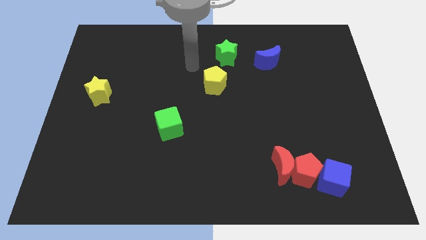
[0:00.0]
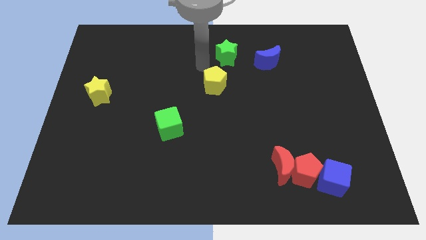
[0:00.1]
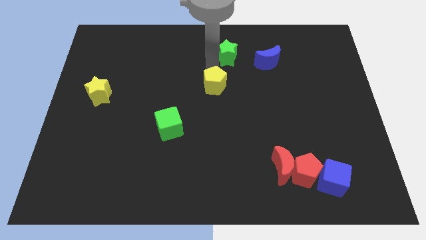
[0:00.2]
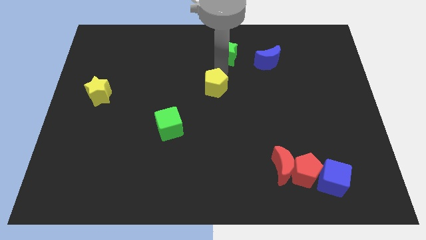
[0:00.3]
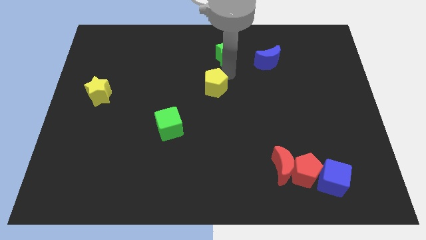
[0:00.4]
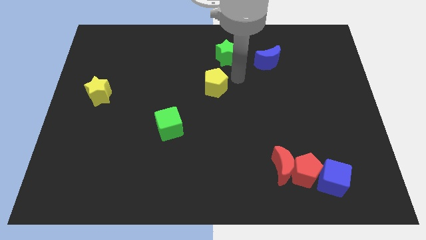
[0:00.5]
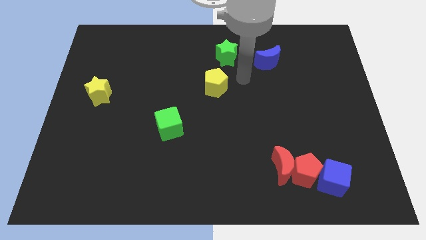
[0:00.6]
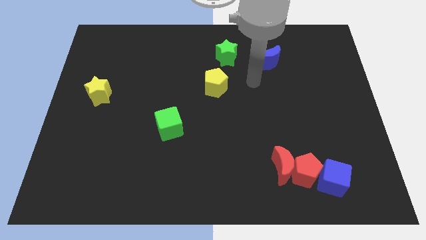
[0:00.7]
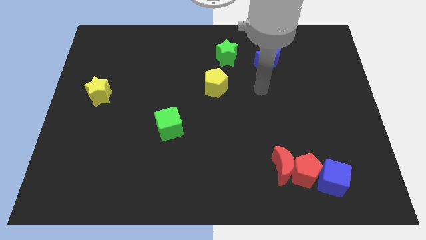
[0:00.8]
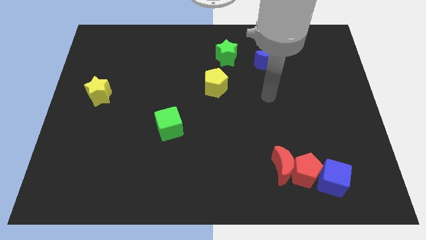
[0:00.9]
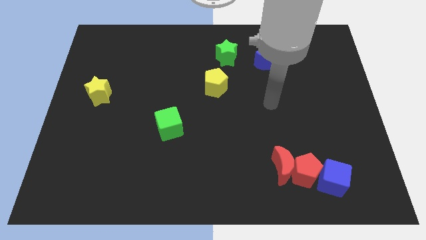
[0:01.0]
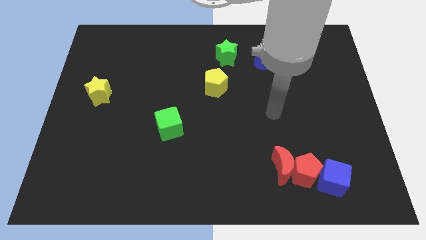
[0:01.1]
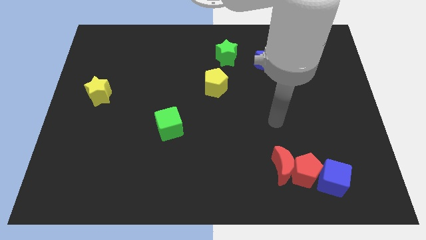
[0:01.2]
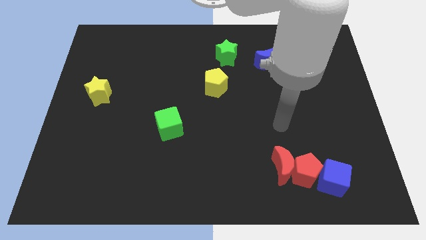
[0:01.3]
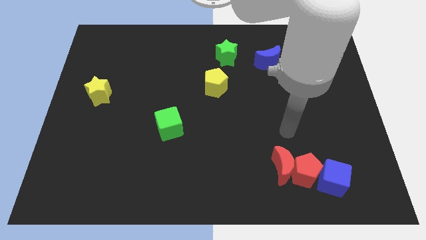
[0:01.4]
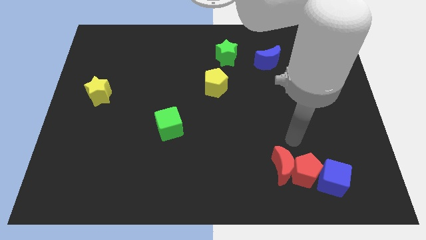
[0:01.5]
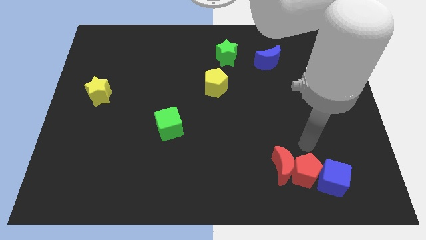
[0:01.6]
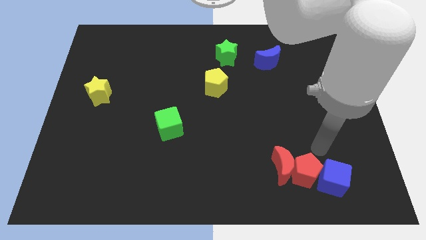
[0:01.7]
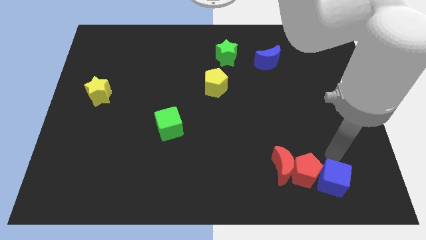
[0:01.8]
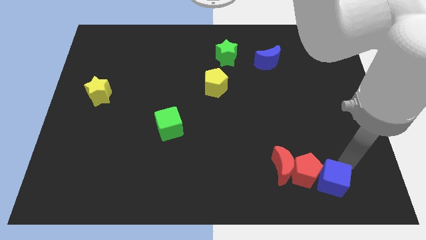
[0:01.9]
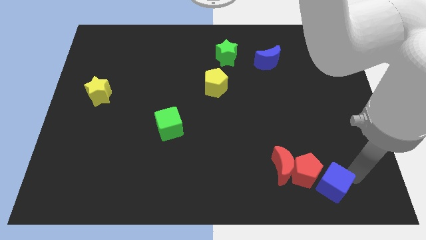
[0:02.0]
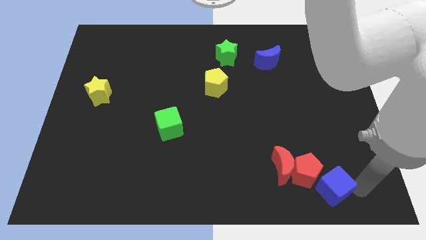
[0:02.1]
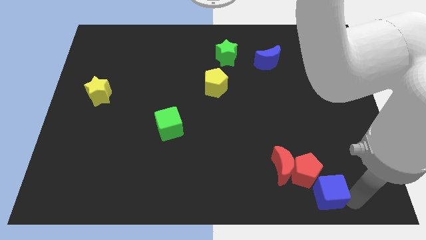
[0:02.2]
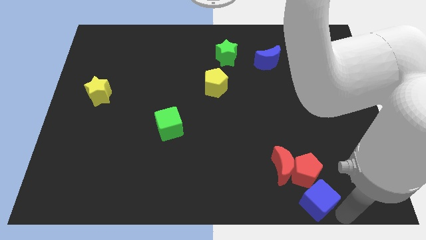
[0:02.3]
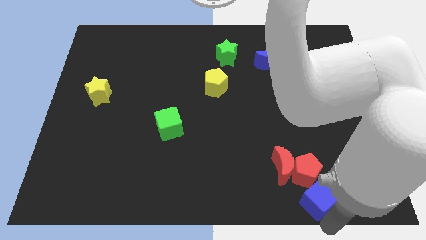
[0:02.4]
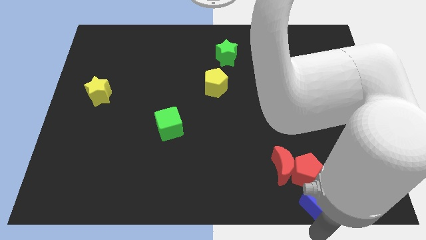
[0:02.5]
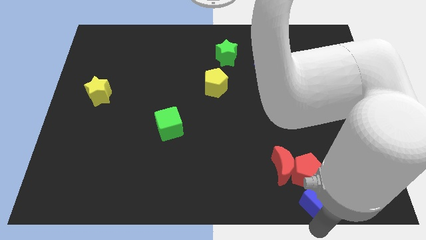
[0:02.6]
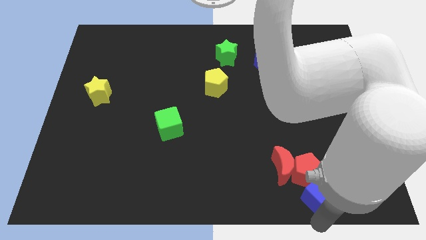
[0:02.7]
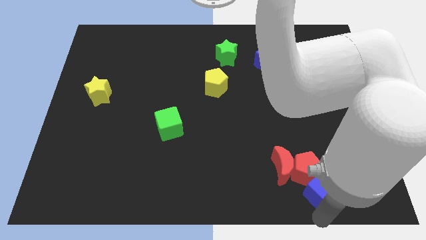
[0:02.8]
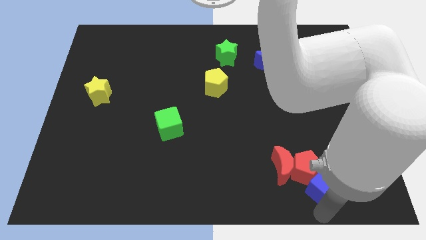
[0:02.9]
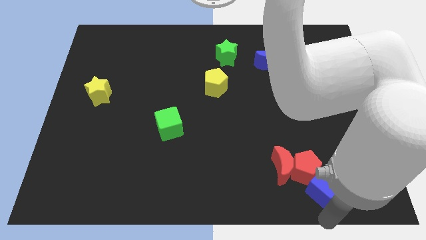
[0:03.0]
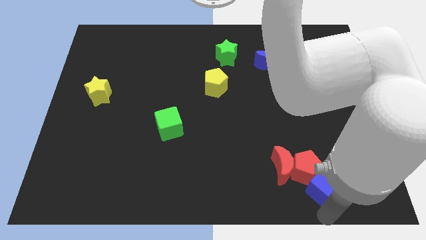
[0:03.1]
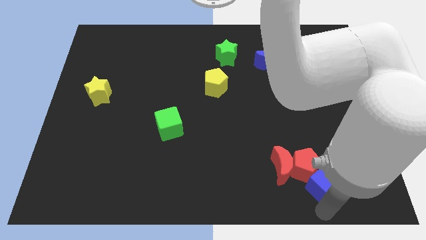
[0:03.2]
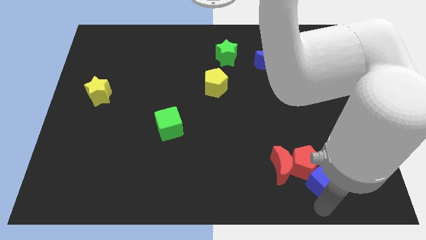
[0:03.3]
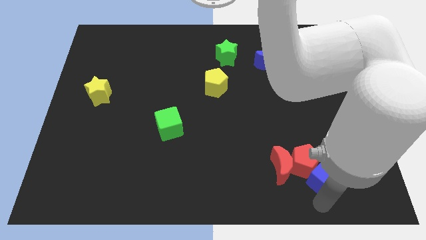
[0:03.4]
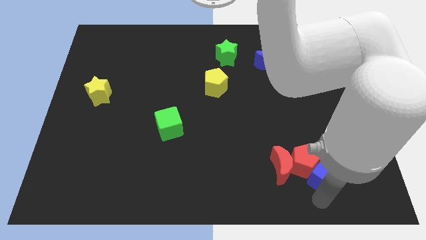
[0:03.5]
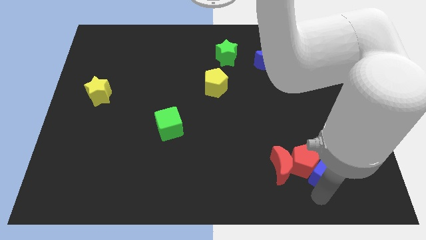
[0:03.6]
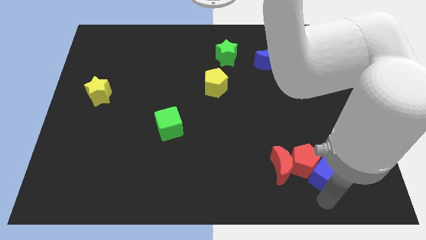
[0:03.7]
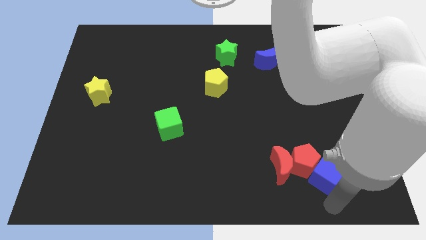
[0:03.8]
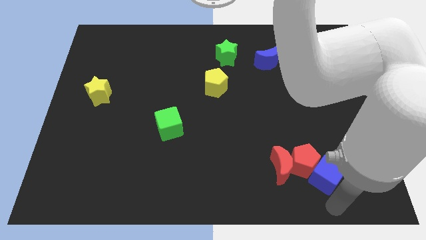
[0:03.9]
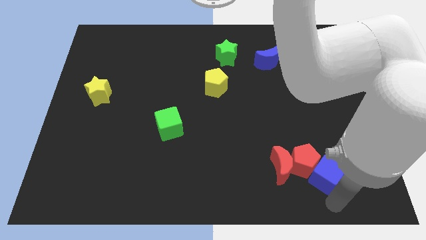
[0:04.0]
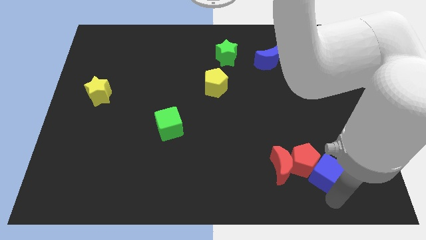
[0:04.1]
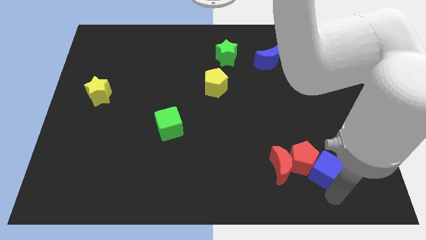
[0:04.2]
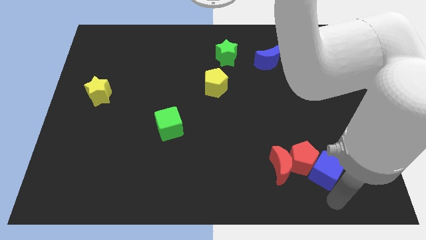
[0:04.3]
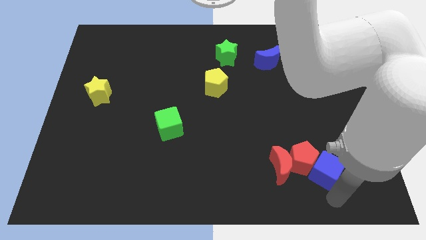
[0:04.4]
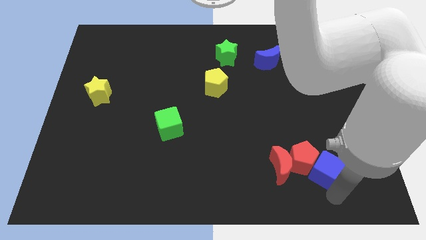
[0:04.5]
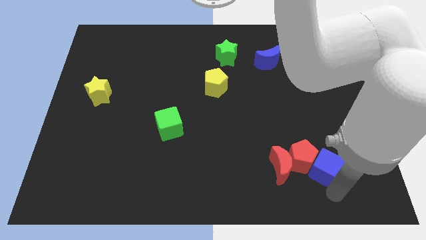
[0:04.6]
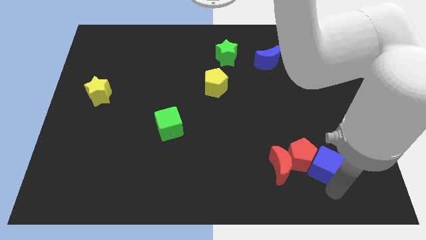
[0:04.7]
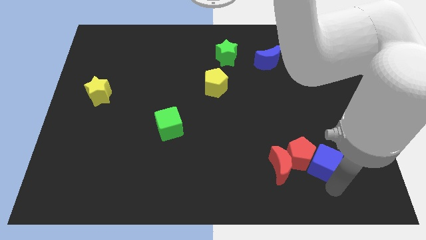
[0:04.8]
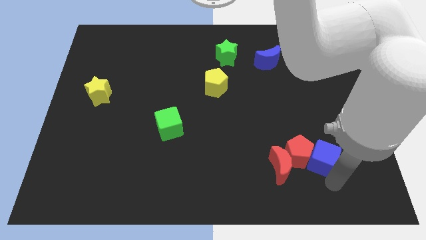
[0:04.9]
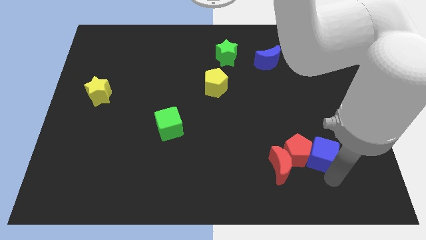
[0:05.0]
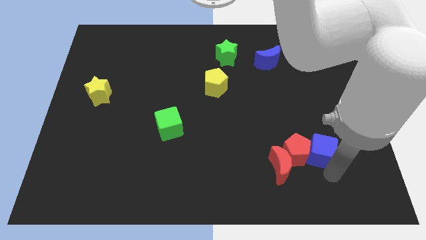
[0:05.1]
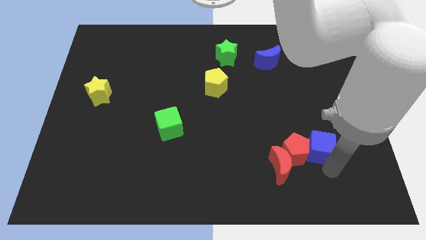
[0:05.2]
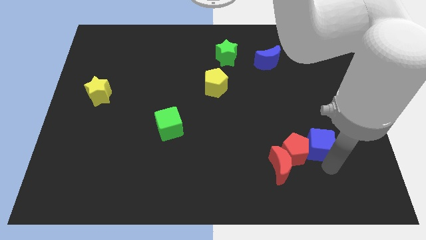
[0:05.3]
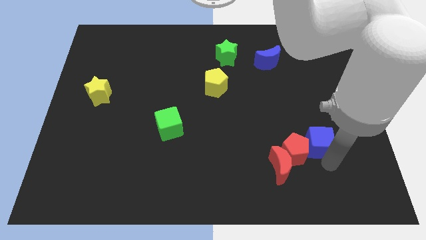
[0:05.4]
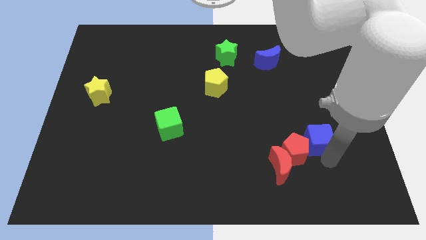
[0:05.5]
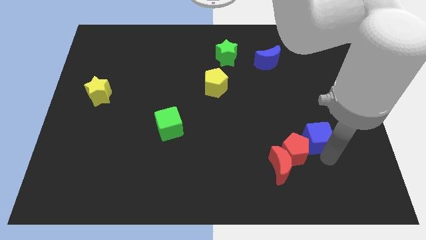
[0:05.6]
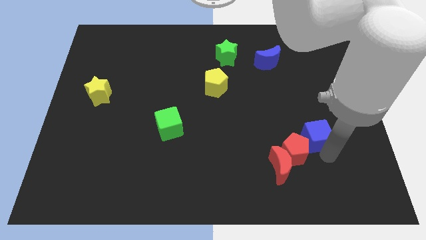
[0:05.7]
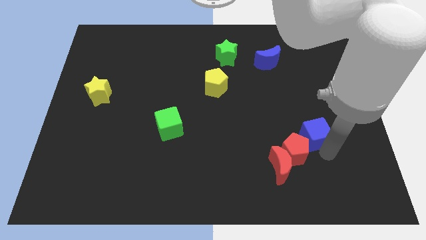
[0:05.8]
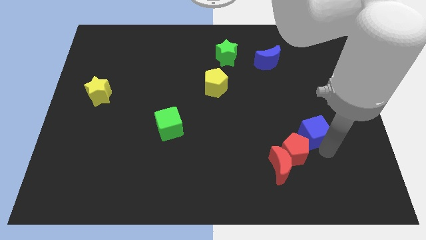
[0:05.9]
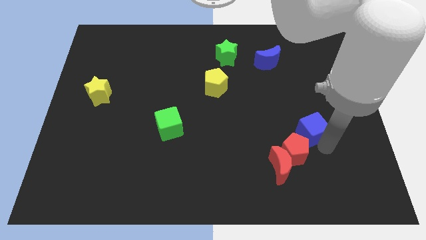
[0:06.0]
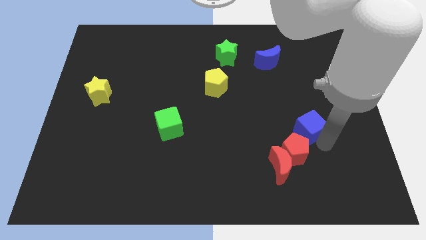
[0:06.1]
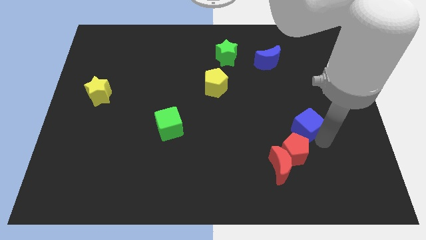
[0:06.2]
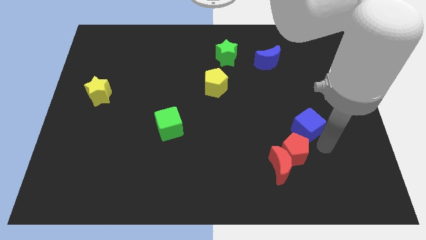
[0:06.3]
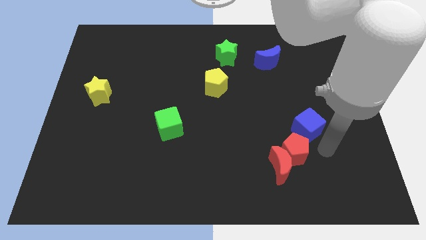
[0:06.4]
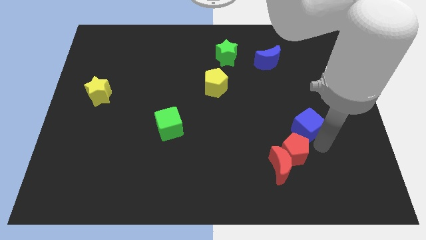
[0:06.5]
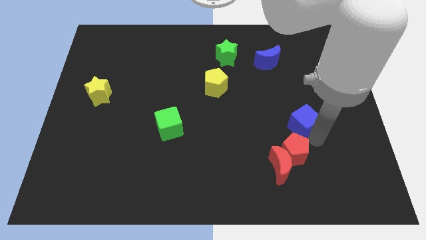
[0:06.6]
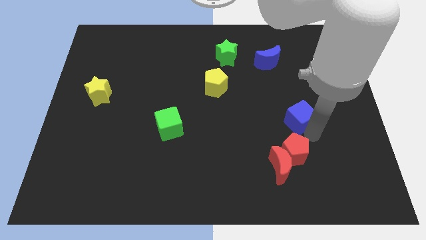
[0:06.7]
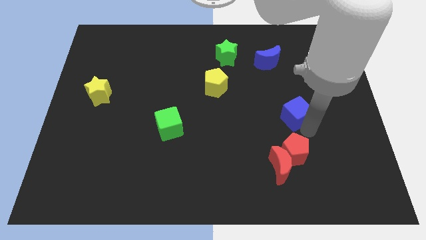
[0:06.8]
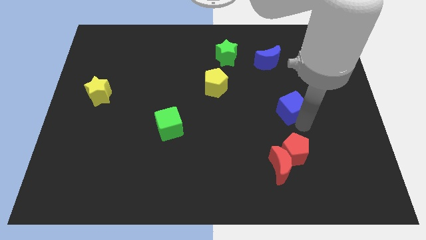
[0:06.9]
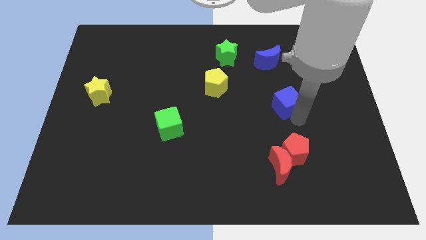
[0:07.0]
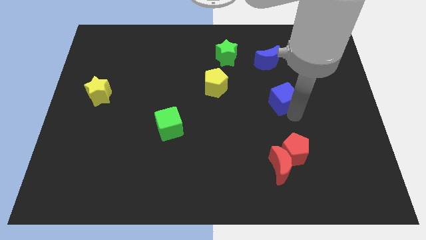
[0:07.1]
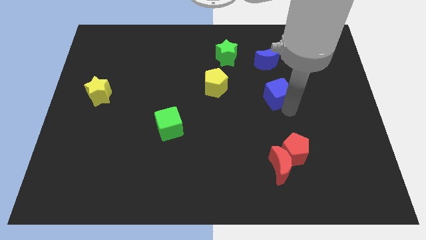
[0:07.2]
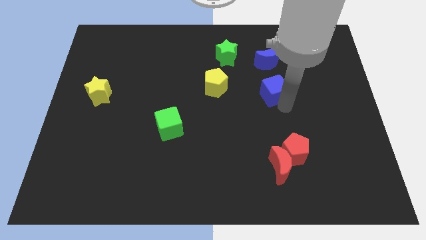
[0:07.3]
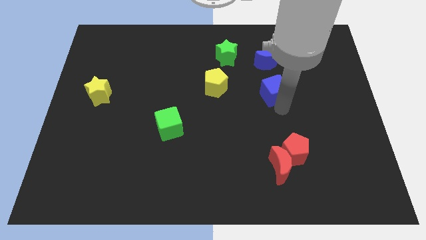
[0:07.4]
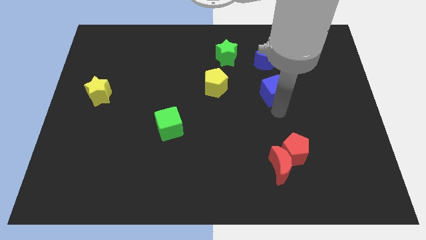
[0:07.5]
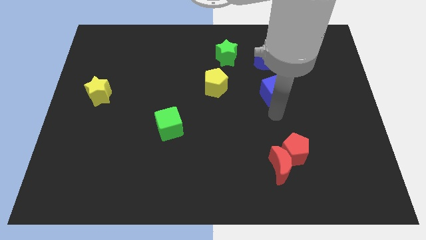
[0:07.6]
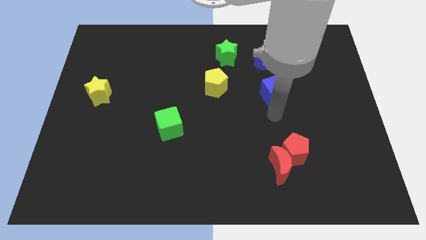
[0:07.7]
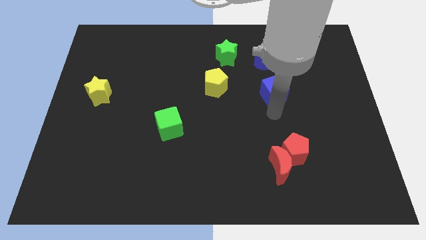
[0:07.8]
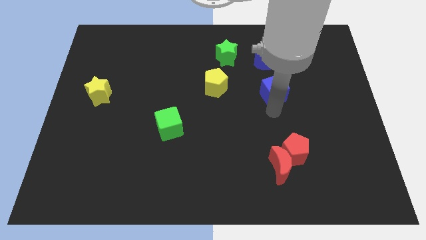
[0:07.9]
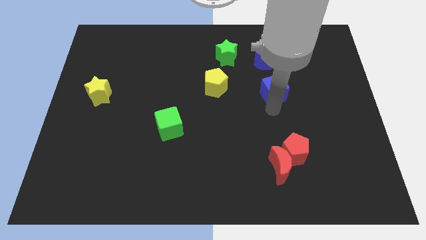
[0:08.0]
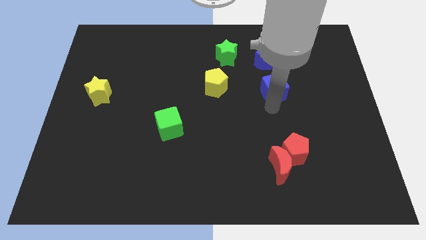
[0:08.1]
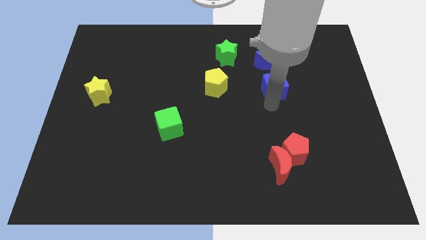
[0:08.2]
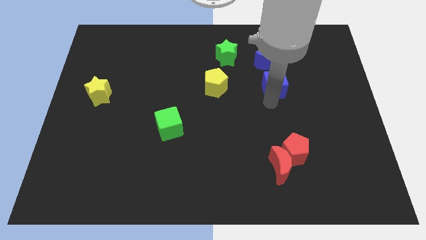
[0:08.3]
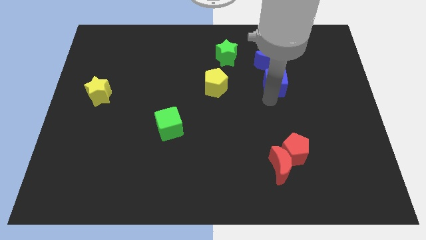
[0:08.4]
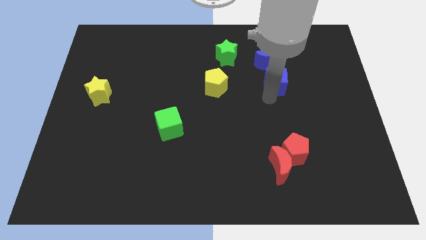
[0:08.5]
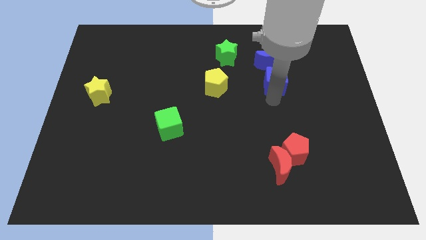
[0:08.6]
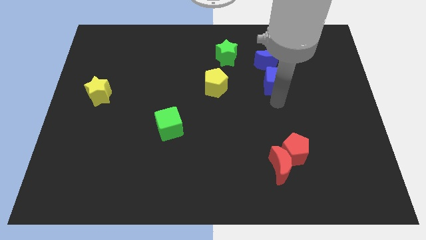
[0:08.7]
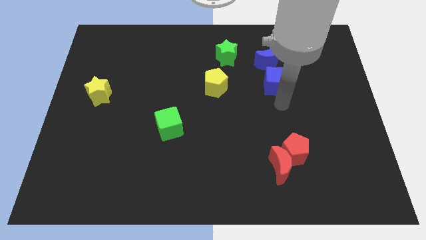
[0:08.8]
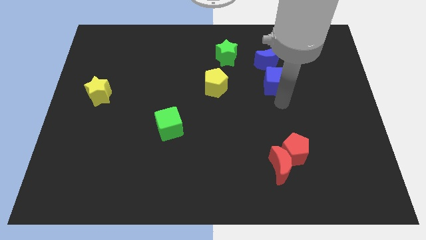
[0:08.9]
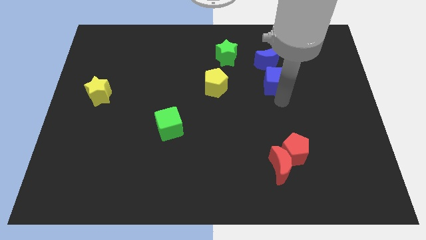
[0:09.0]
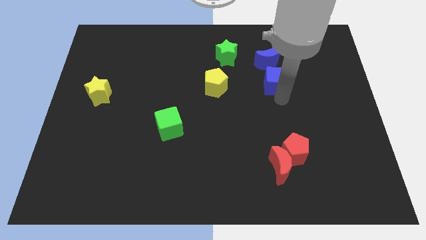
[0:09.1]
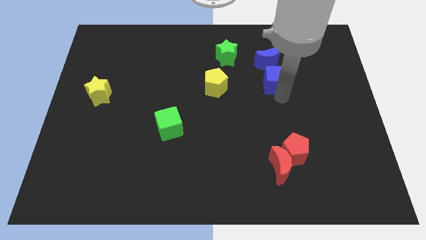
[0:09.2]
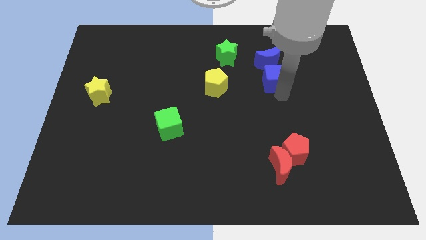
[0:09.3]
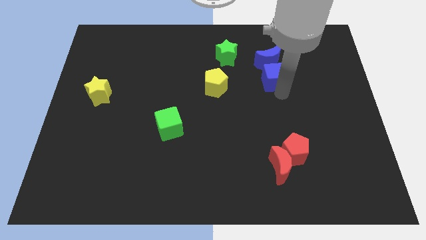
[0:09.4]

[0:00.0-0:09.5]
move the blue cube to the blue moon
